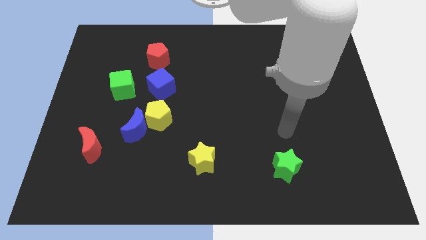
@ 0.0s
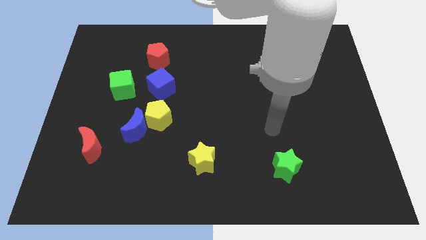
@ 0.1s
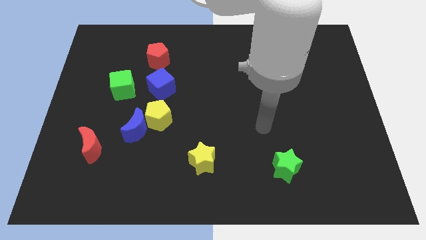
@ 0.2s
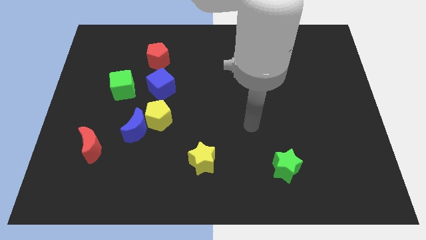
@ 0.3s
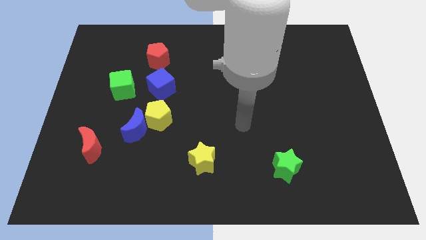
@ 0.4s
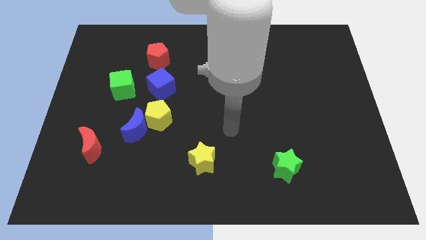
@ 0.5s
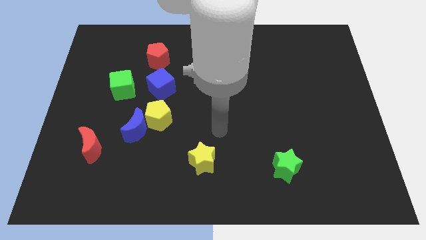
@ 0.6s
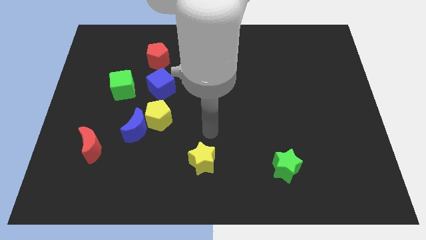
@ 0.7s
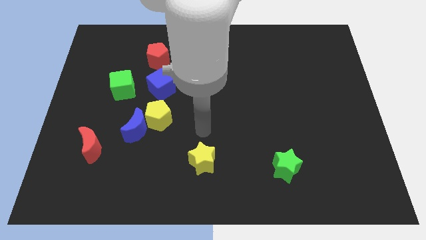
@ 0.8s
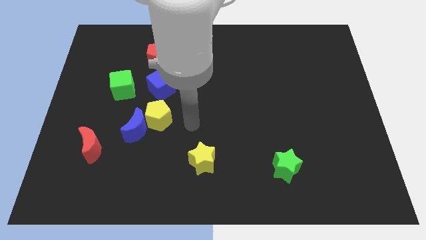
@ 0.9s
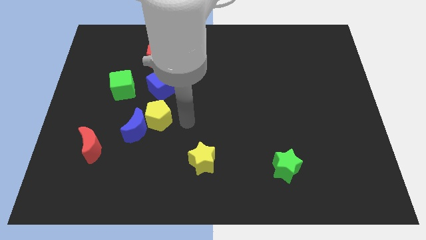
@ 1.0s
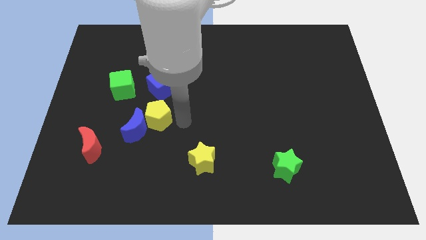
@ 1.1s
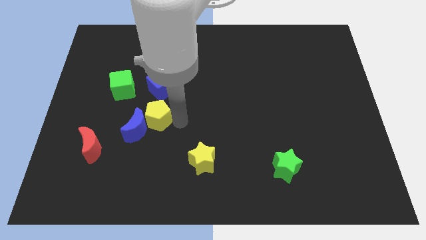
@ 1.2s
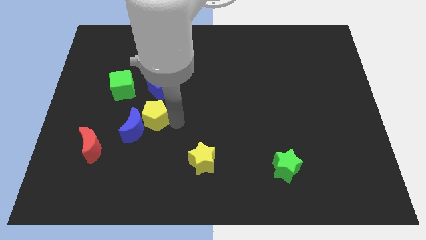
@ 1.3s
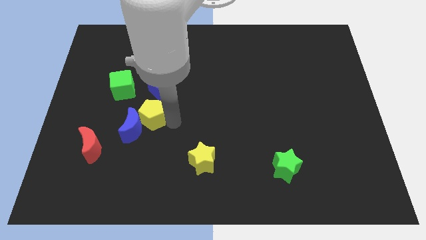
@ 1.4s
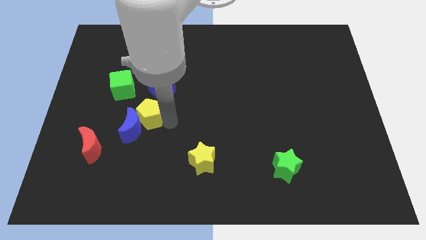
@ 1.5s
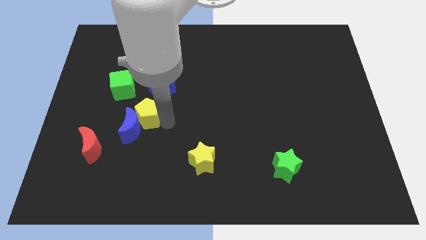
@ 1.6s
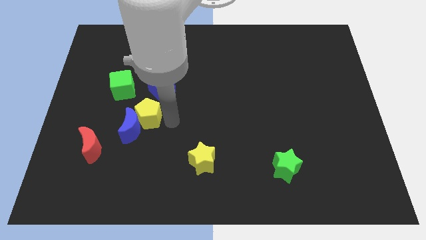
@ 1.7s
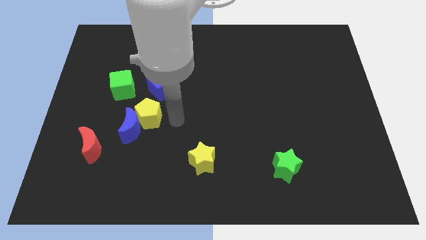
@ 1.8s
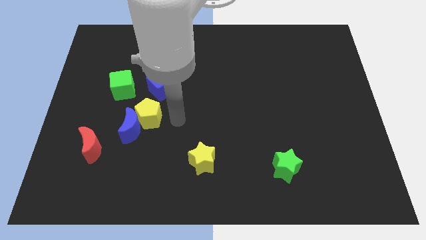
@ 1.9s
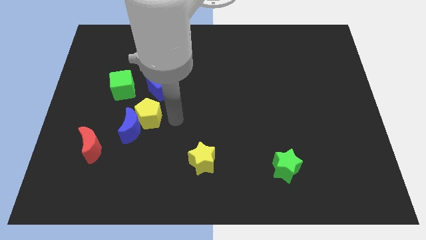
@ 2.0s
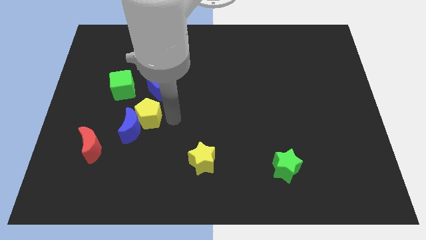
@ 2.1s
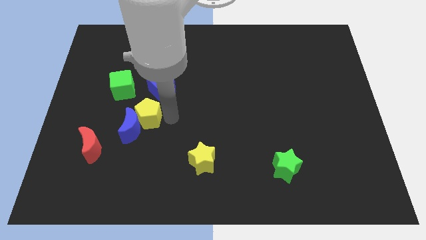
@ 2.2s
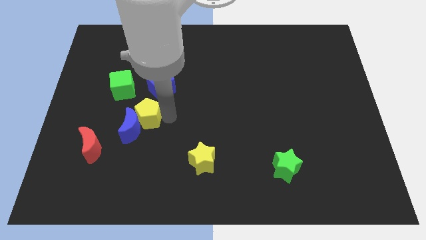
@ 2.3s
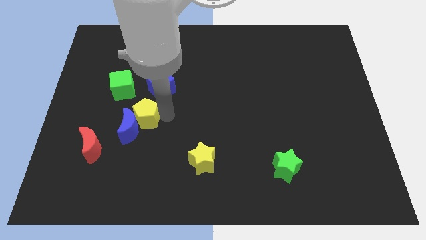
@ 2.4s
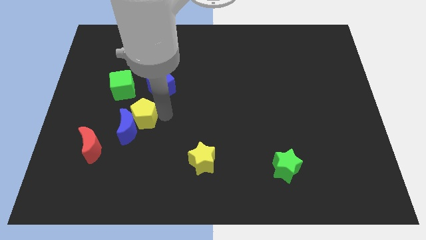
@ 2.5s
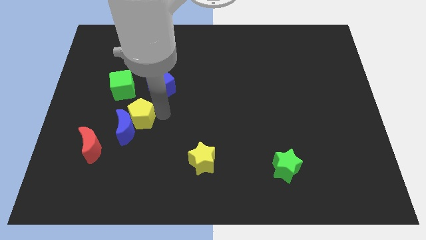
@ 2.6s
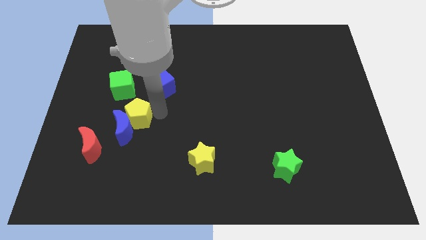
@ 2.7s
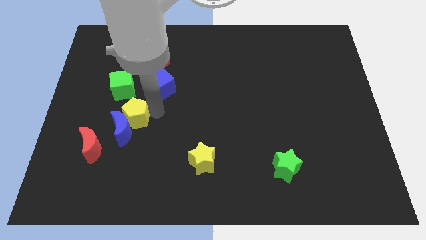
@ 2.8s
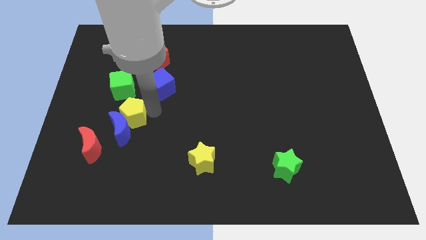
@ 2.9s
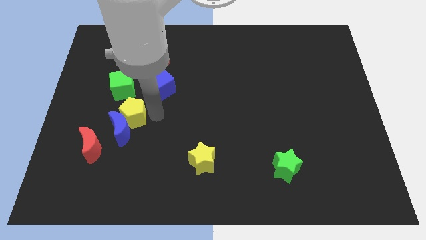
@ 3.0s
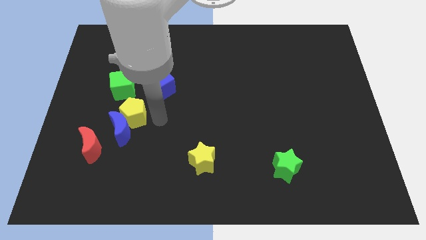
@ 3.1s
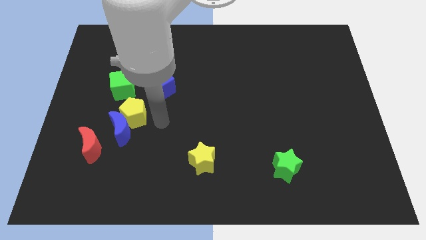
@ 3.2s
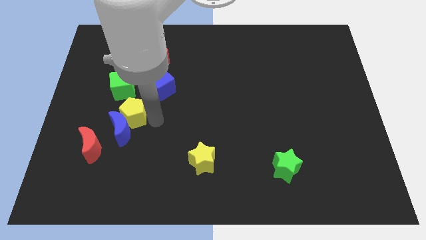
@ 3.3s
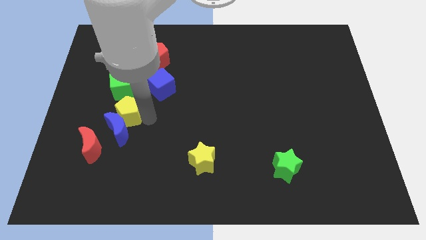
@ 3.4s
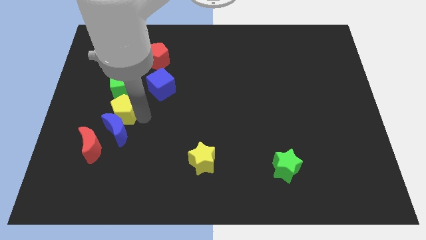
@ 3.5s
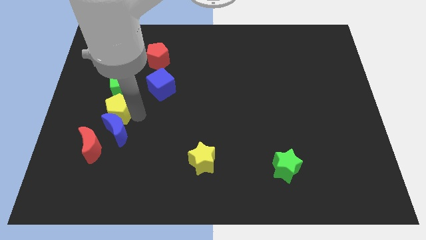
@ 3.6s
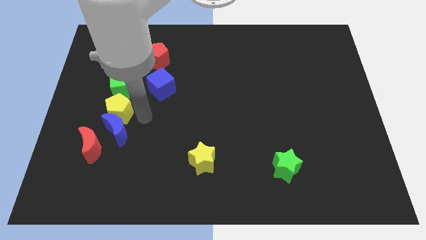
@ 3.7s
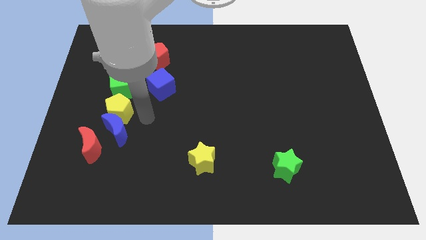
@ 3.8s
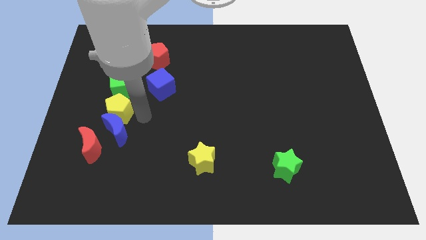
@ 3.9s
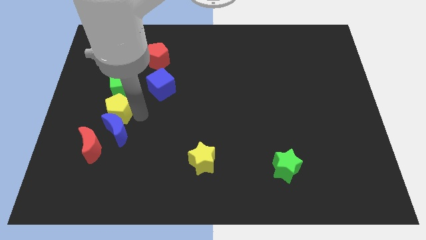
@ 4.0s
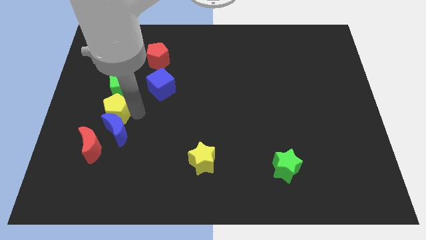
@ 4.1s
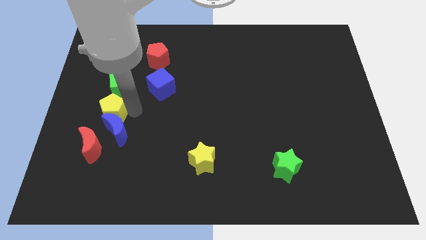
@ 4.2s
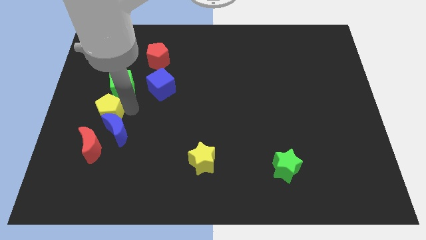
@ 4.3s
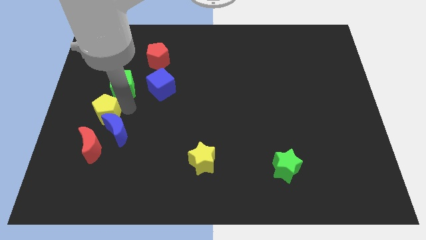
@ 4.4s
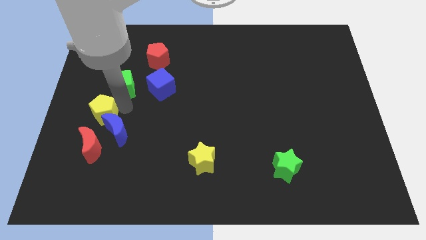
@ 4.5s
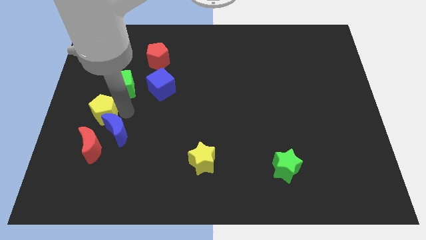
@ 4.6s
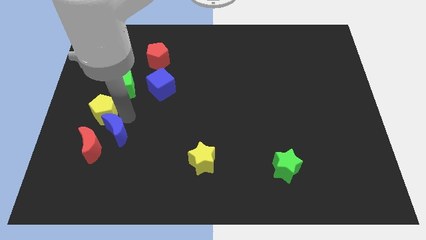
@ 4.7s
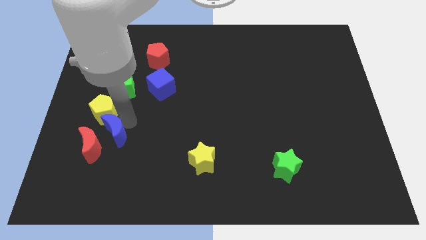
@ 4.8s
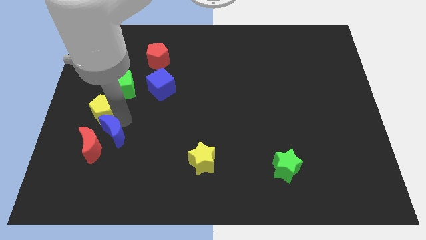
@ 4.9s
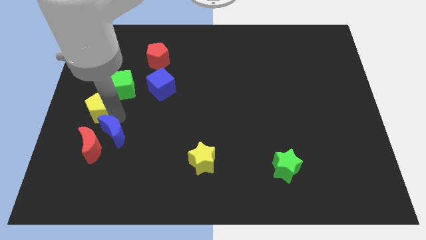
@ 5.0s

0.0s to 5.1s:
push the yellow pentagon to the center left
